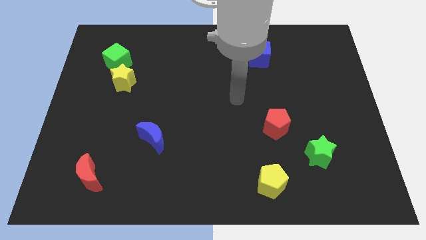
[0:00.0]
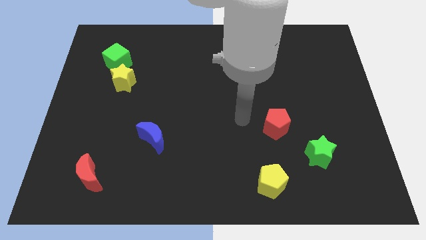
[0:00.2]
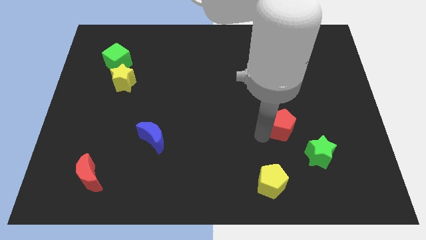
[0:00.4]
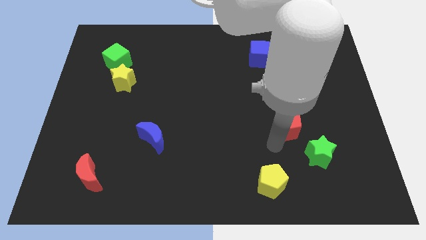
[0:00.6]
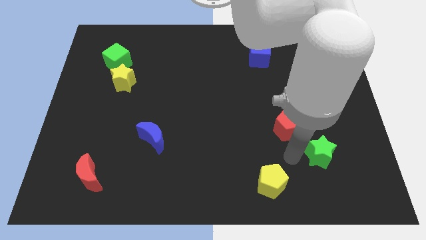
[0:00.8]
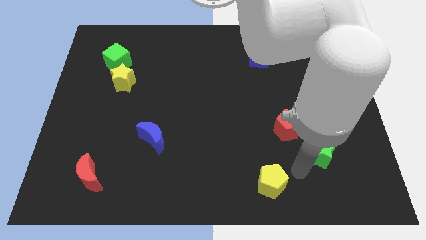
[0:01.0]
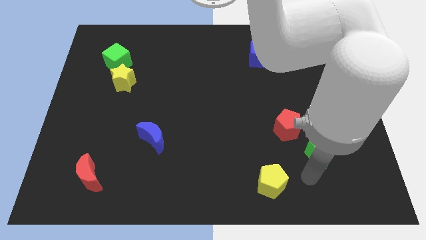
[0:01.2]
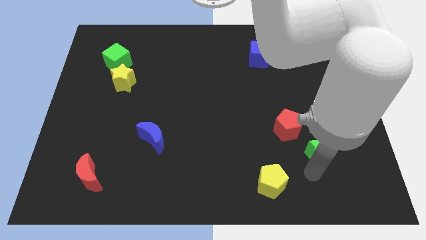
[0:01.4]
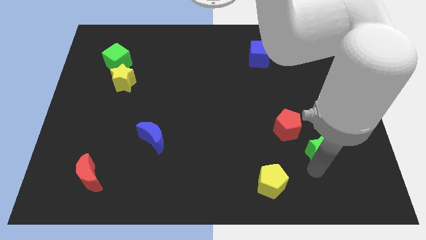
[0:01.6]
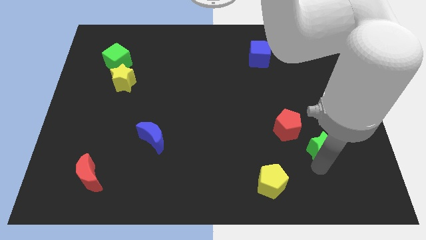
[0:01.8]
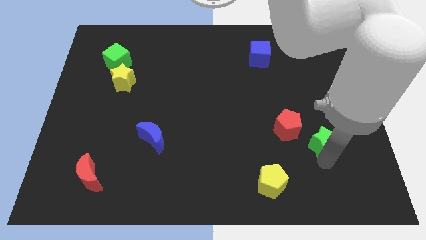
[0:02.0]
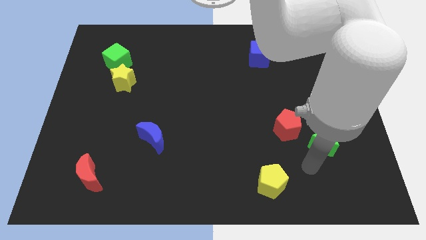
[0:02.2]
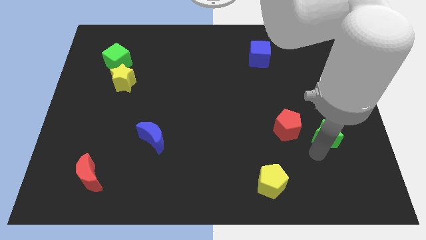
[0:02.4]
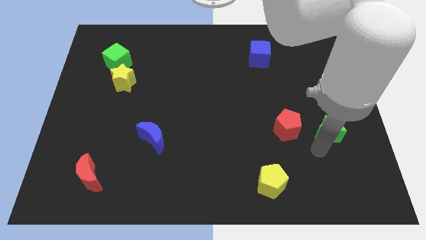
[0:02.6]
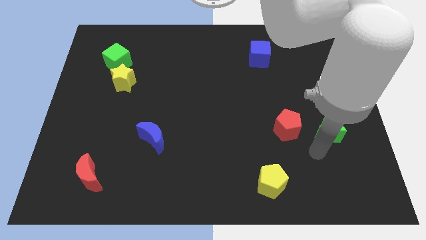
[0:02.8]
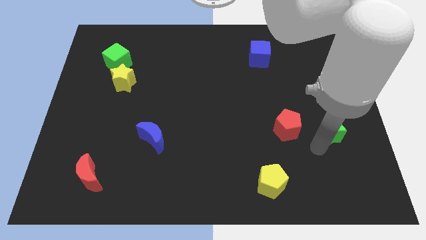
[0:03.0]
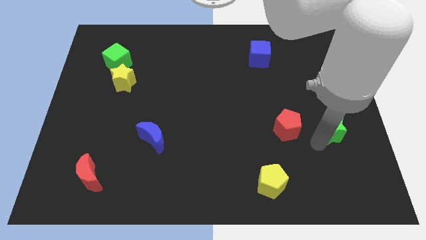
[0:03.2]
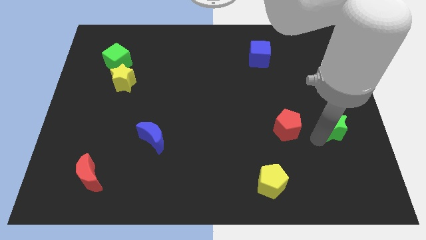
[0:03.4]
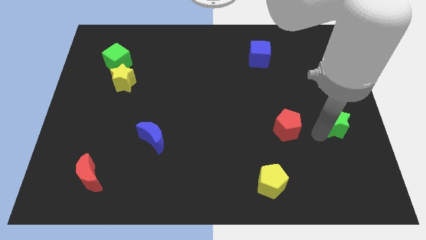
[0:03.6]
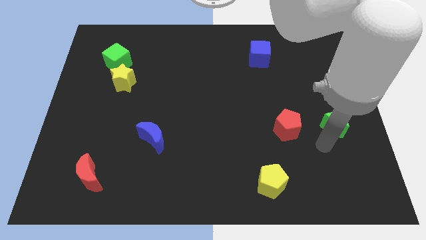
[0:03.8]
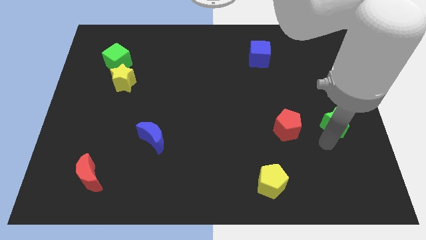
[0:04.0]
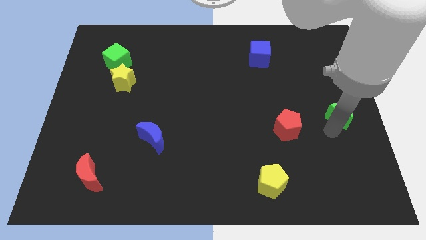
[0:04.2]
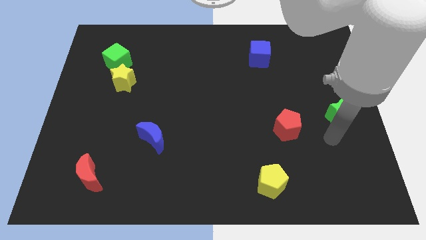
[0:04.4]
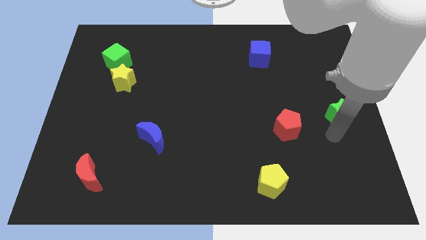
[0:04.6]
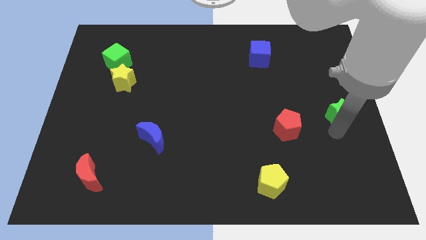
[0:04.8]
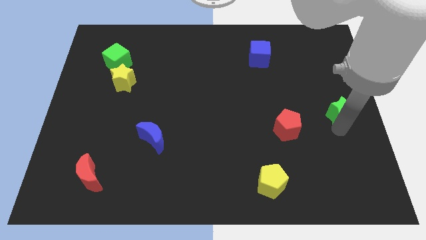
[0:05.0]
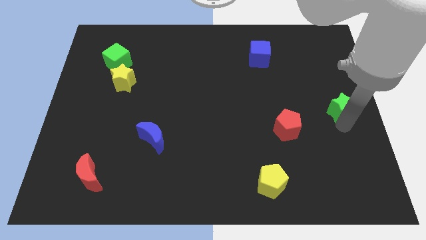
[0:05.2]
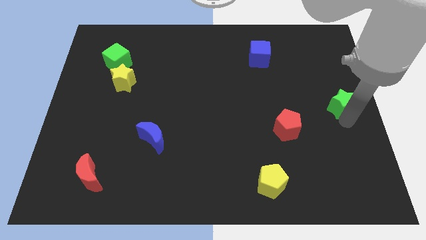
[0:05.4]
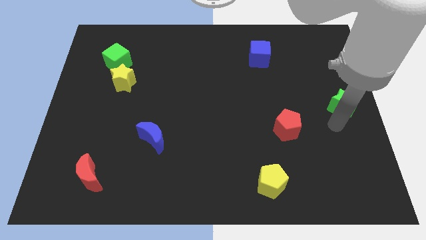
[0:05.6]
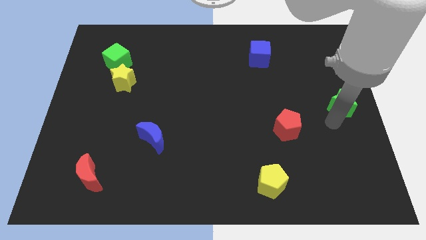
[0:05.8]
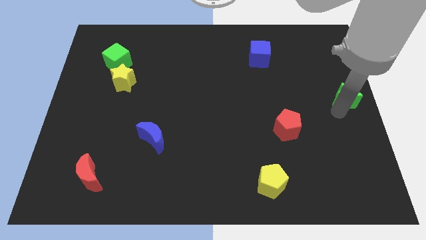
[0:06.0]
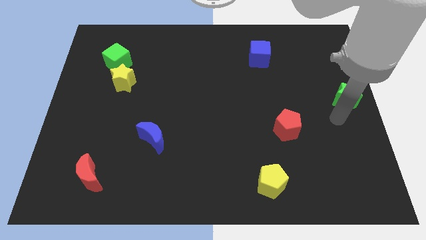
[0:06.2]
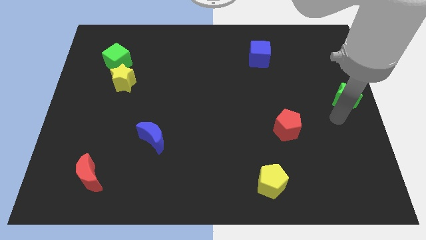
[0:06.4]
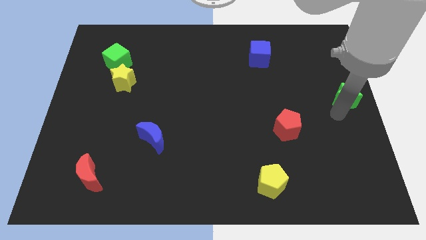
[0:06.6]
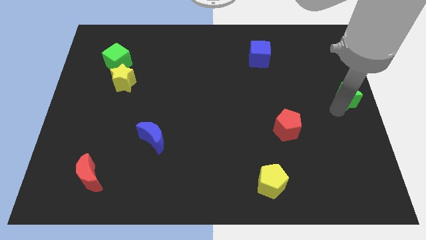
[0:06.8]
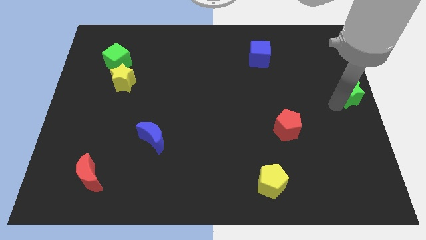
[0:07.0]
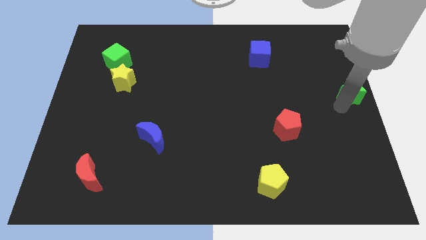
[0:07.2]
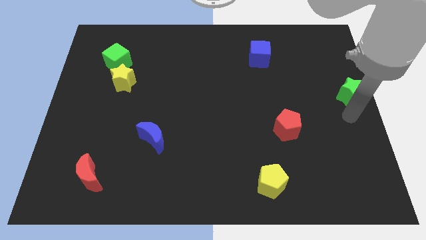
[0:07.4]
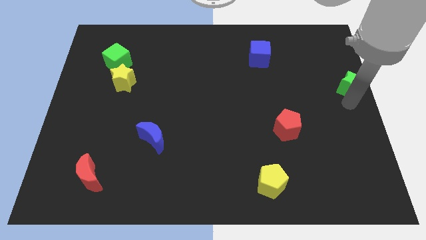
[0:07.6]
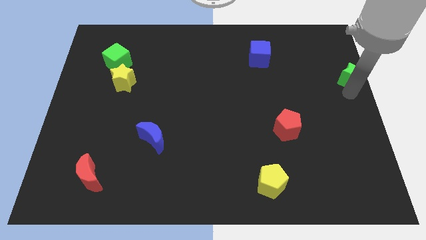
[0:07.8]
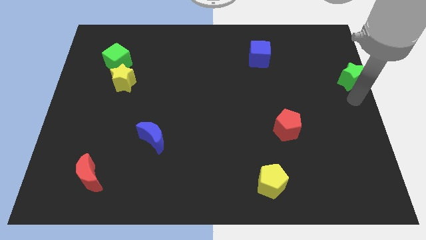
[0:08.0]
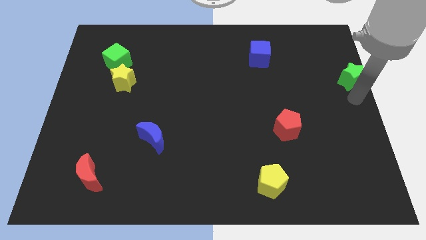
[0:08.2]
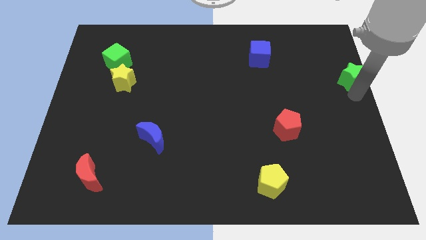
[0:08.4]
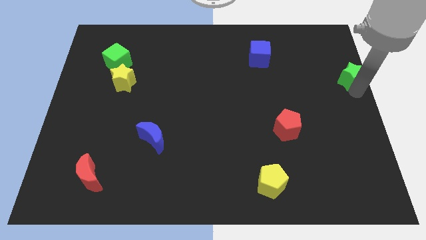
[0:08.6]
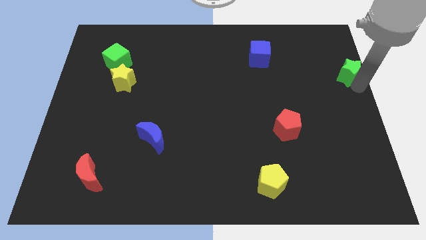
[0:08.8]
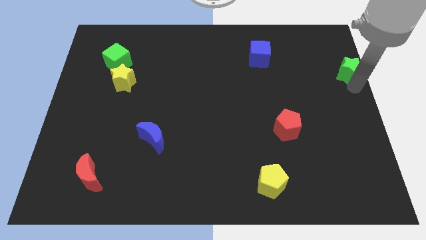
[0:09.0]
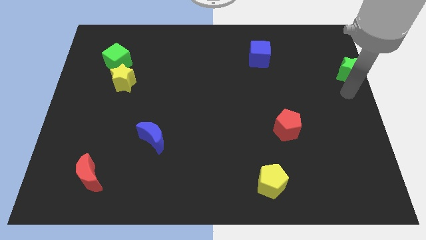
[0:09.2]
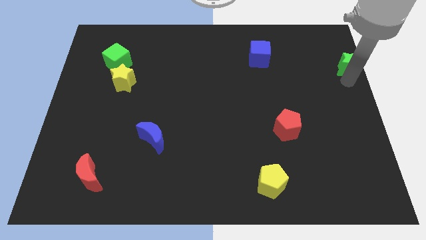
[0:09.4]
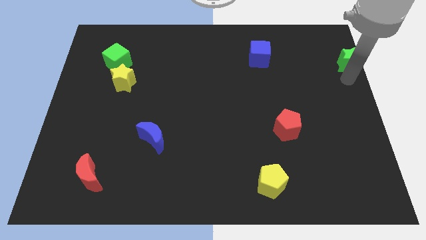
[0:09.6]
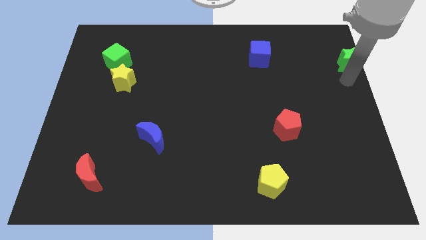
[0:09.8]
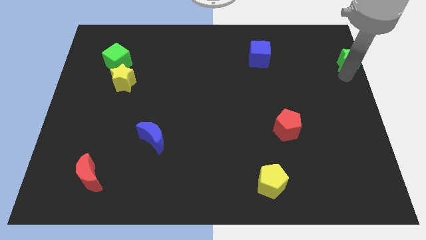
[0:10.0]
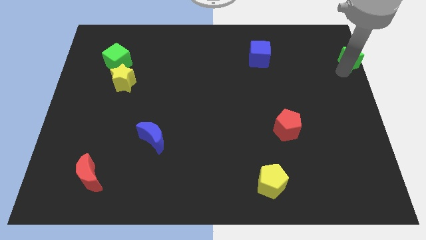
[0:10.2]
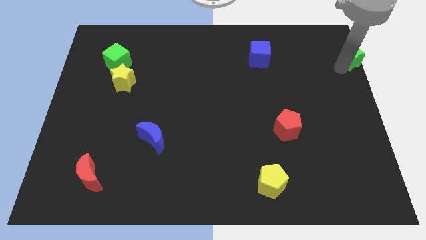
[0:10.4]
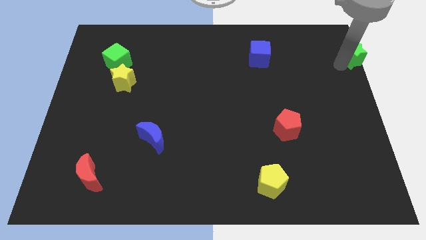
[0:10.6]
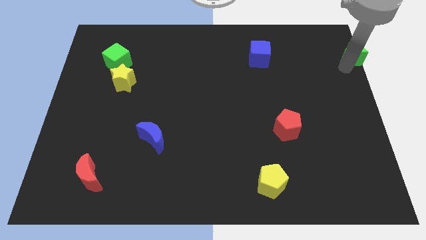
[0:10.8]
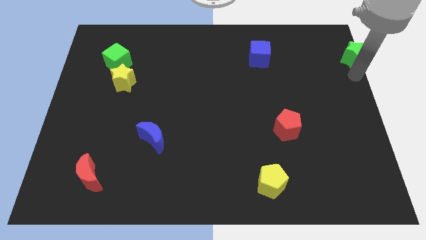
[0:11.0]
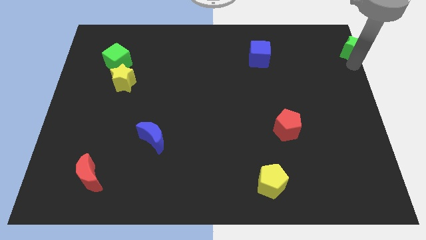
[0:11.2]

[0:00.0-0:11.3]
move the green star to the top right of the board
